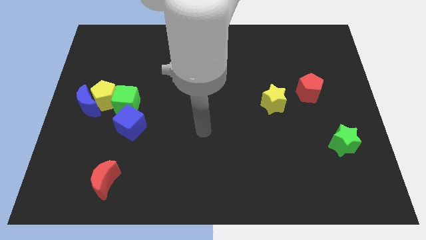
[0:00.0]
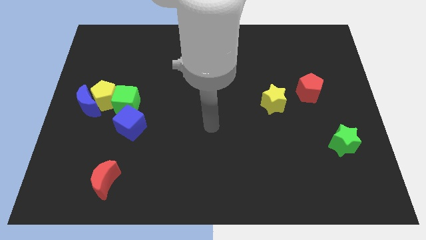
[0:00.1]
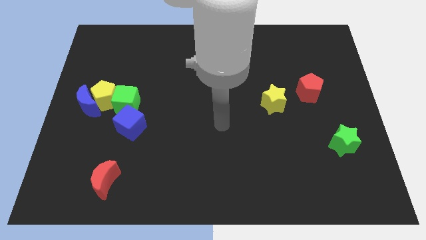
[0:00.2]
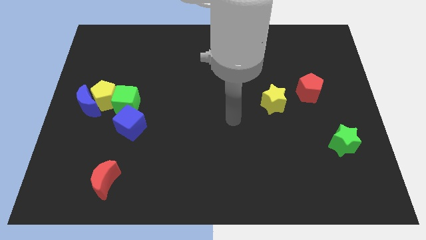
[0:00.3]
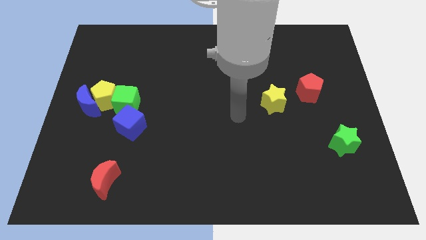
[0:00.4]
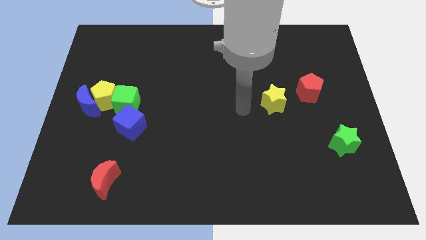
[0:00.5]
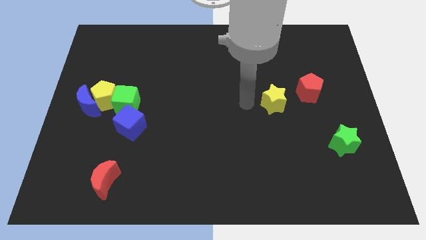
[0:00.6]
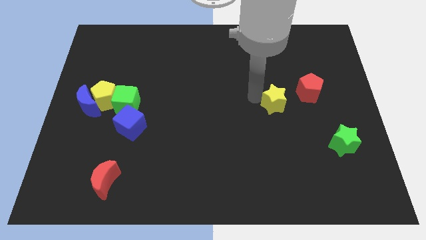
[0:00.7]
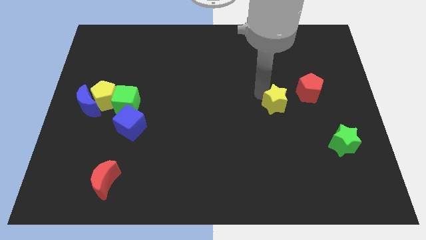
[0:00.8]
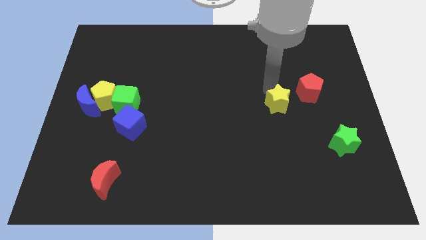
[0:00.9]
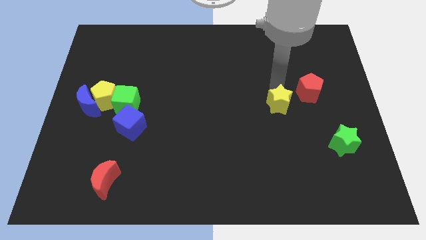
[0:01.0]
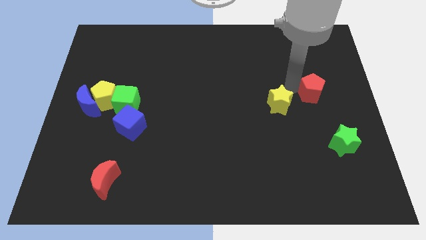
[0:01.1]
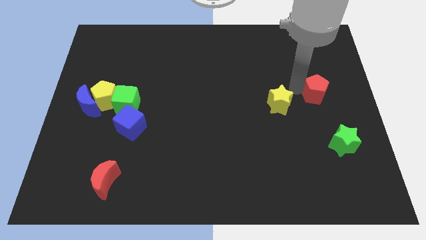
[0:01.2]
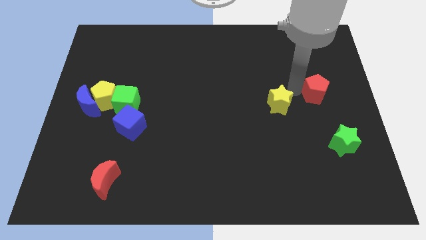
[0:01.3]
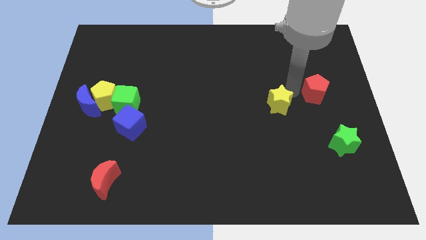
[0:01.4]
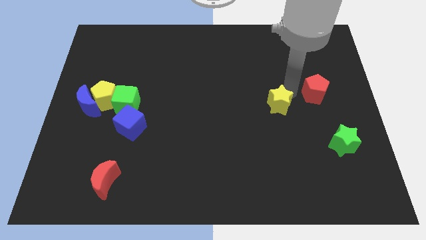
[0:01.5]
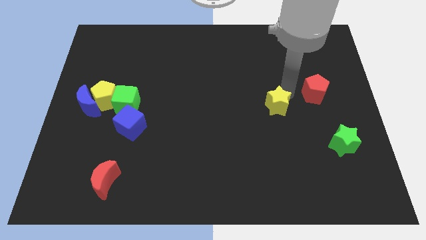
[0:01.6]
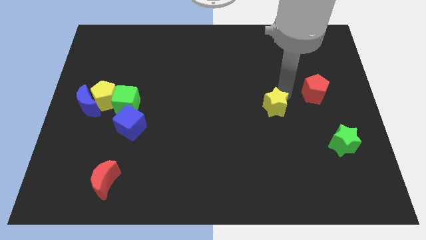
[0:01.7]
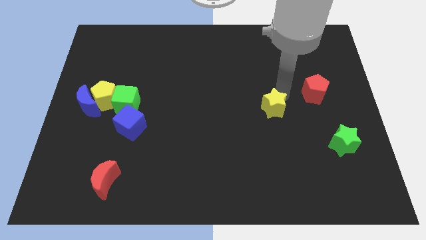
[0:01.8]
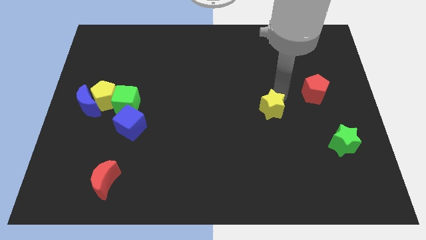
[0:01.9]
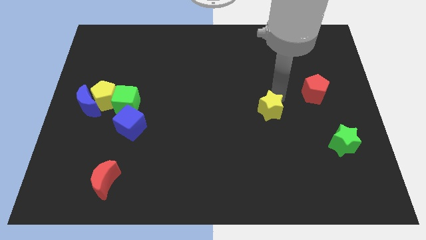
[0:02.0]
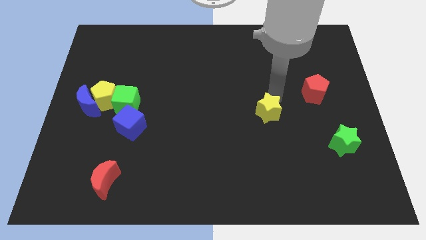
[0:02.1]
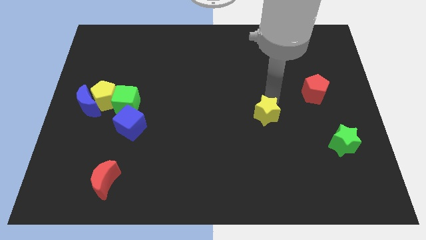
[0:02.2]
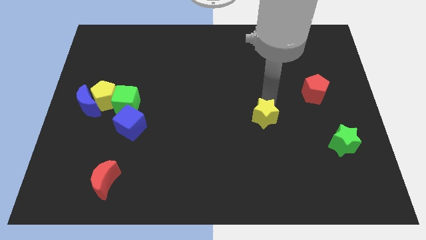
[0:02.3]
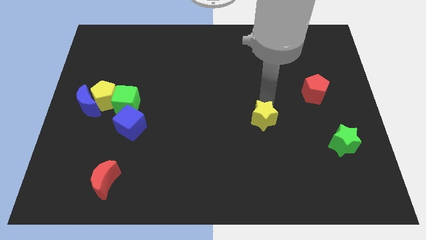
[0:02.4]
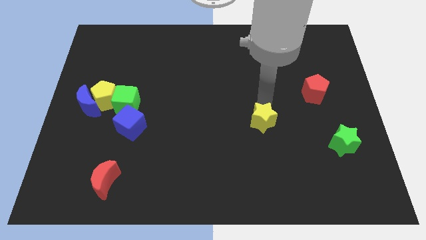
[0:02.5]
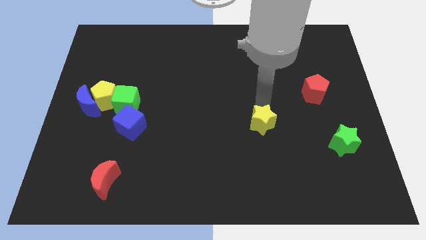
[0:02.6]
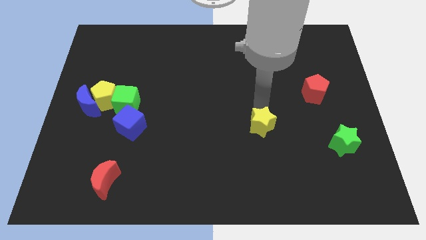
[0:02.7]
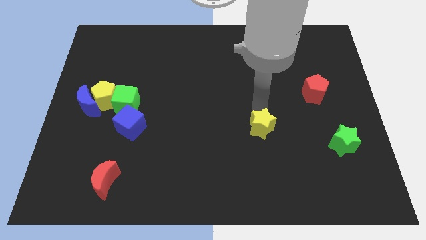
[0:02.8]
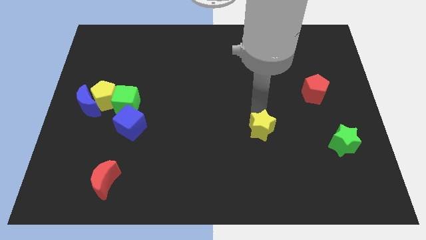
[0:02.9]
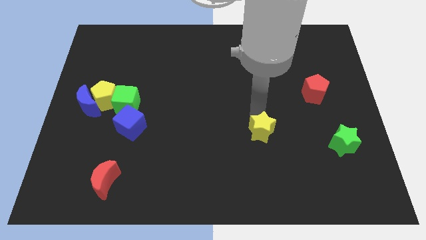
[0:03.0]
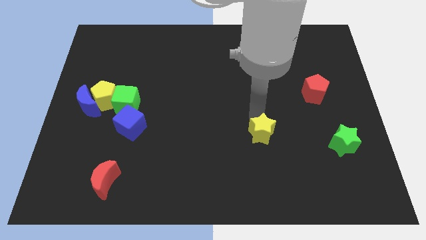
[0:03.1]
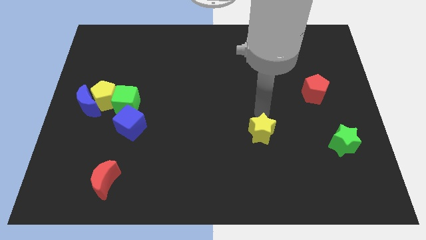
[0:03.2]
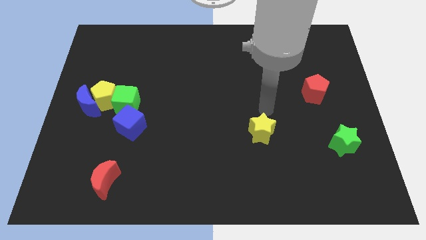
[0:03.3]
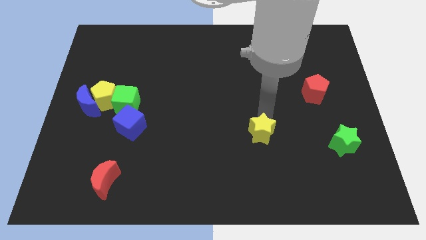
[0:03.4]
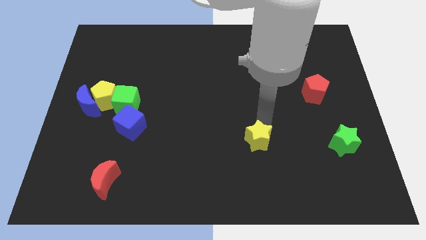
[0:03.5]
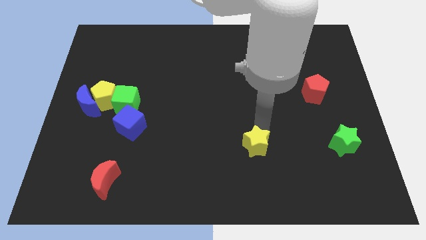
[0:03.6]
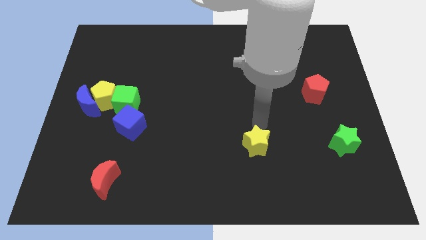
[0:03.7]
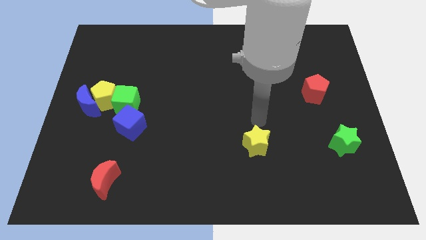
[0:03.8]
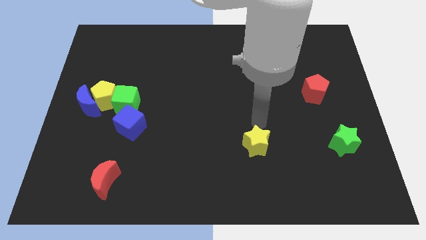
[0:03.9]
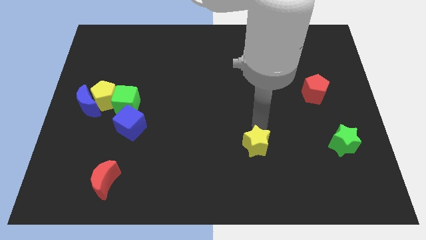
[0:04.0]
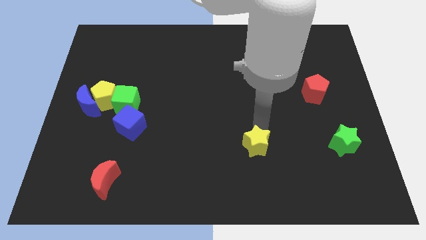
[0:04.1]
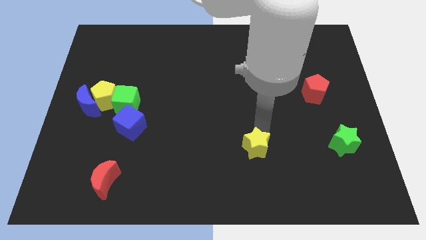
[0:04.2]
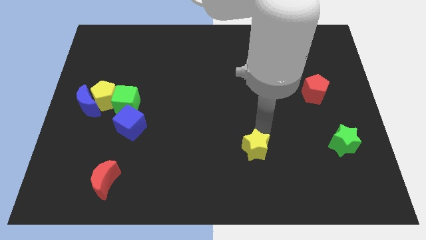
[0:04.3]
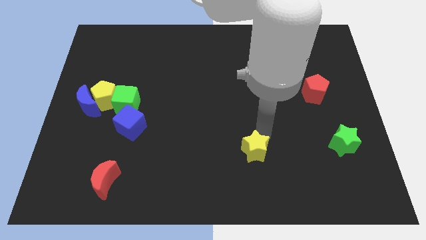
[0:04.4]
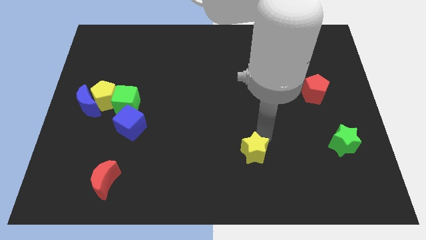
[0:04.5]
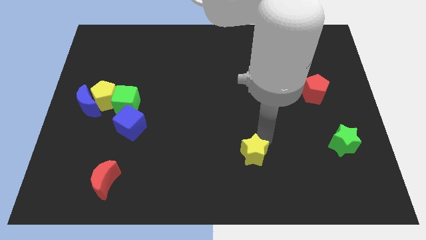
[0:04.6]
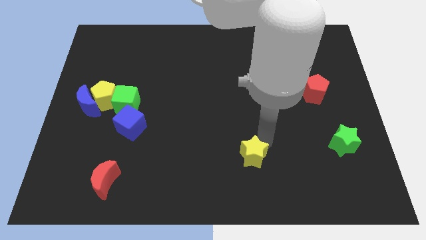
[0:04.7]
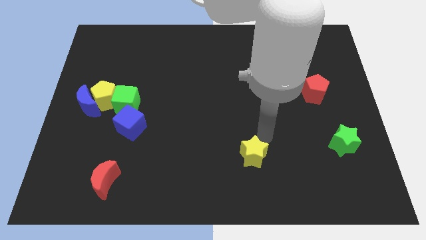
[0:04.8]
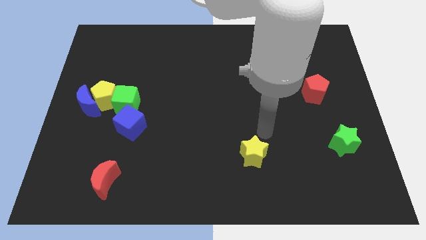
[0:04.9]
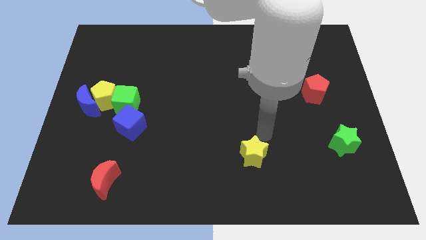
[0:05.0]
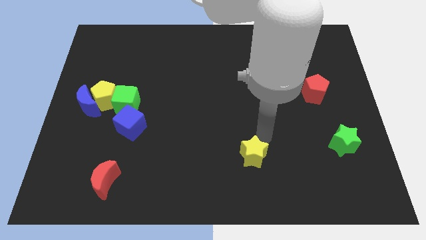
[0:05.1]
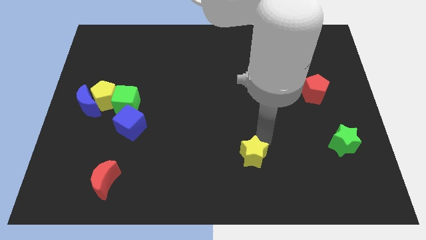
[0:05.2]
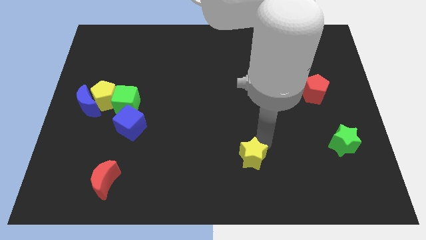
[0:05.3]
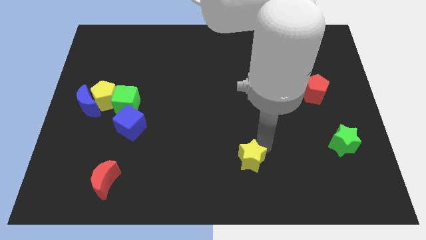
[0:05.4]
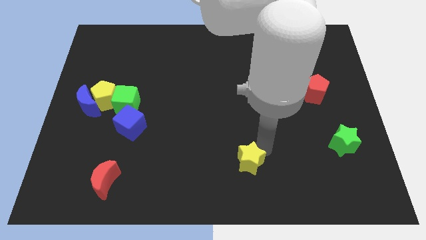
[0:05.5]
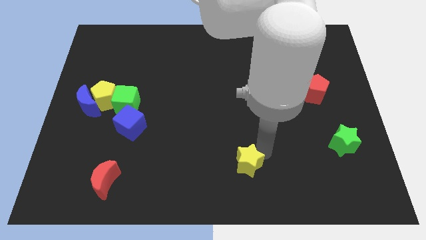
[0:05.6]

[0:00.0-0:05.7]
put the yellow star to the bottom side
